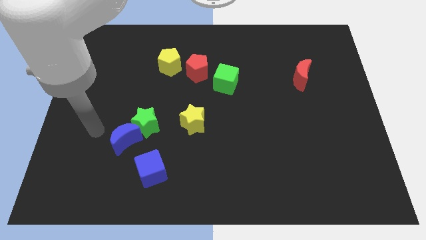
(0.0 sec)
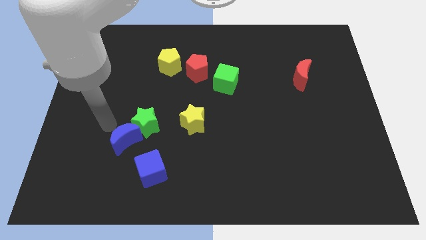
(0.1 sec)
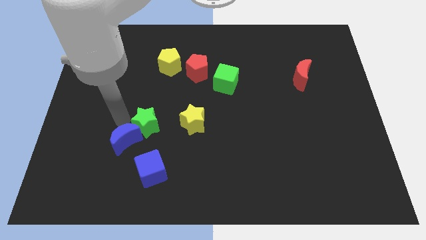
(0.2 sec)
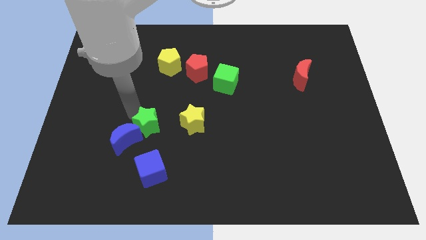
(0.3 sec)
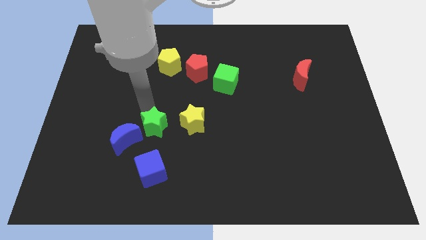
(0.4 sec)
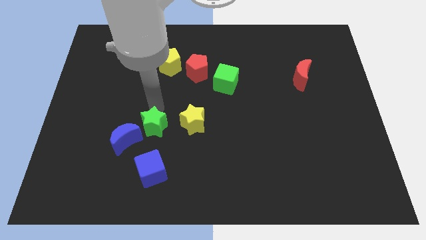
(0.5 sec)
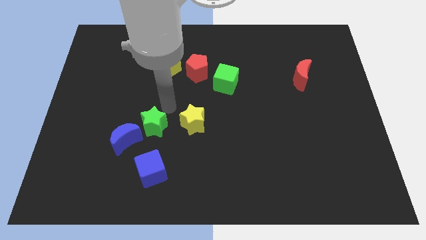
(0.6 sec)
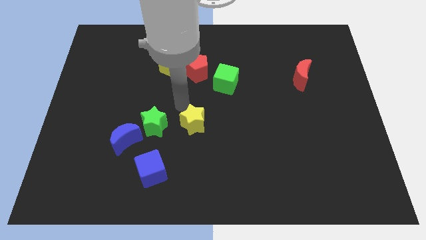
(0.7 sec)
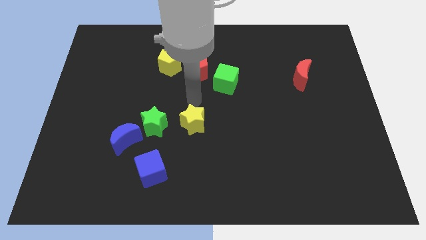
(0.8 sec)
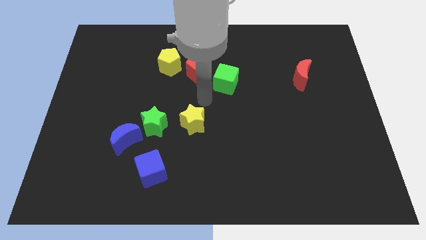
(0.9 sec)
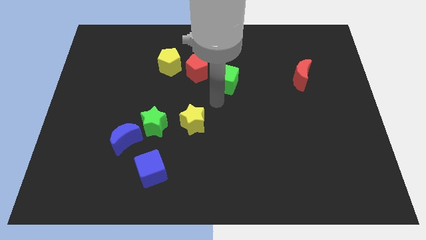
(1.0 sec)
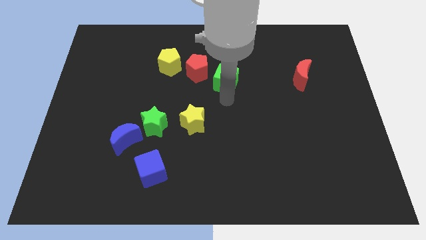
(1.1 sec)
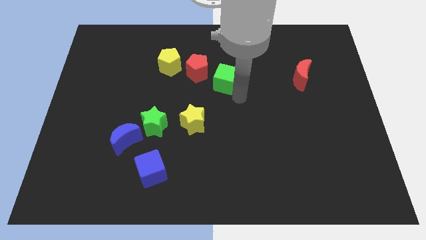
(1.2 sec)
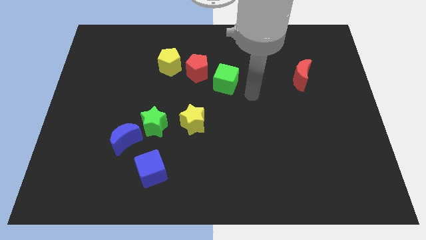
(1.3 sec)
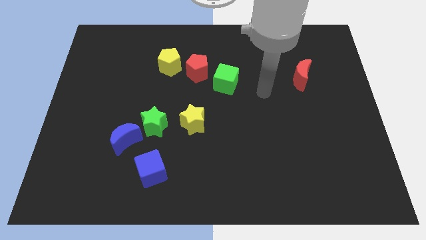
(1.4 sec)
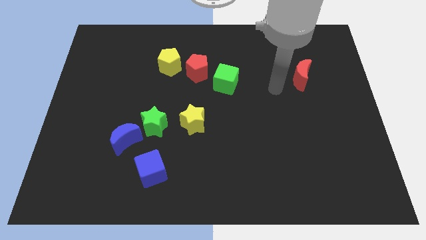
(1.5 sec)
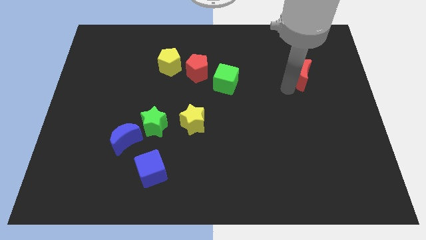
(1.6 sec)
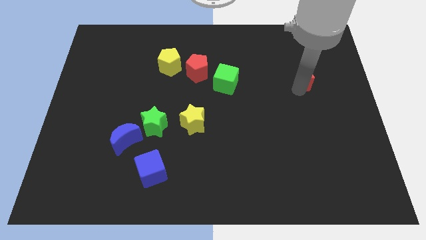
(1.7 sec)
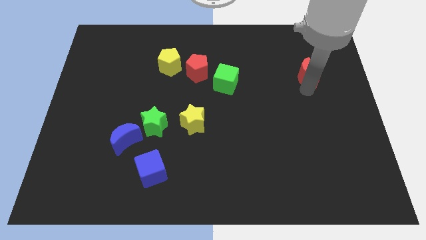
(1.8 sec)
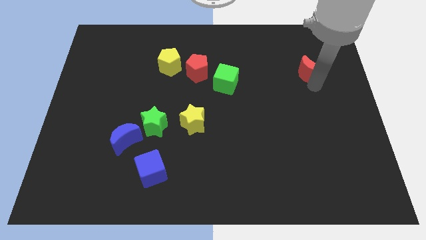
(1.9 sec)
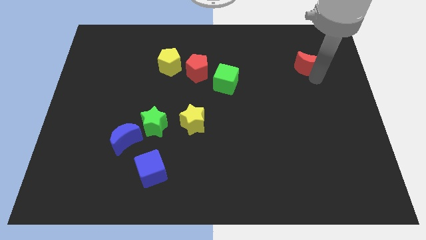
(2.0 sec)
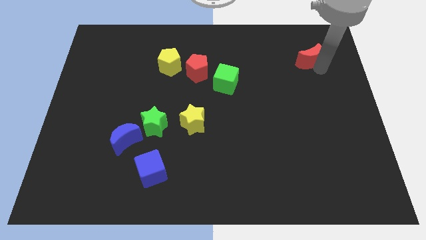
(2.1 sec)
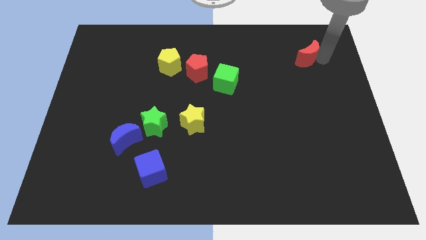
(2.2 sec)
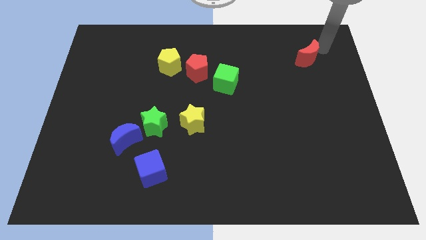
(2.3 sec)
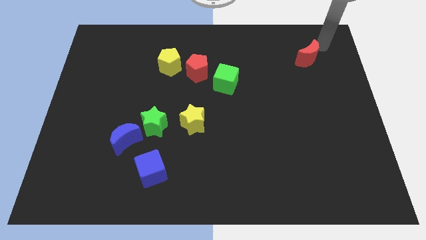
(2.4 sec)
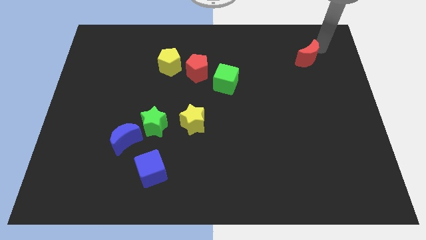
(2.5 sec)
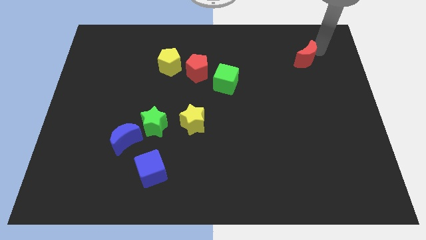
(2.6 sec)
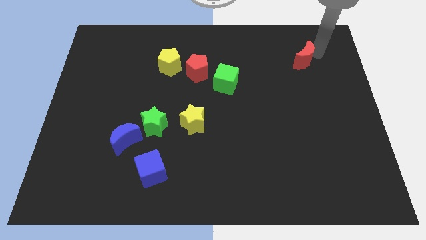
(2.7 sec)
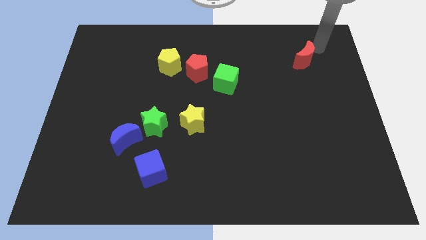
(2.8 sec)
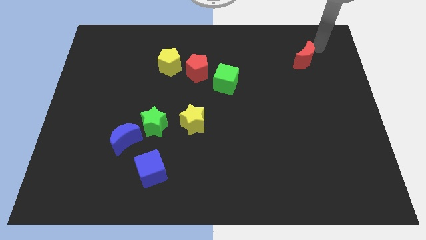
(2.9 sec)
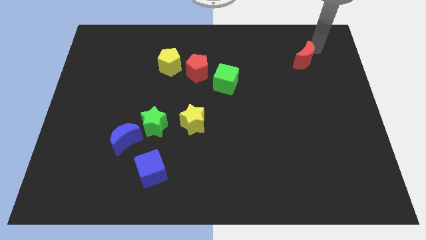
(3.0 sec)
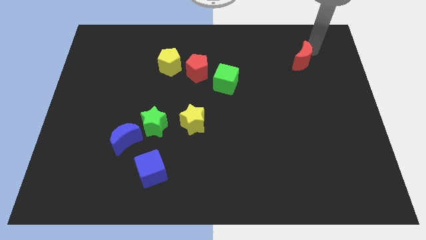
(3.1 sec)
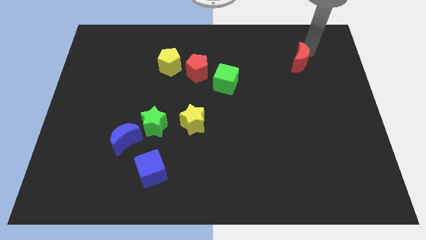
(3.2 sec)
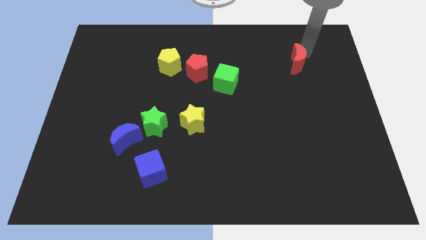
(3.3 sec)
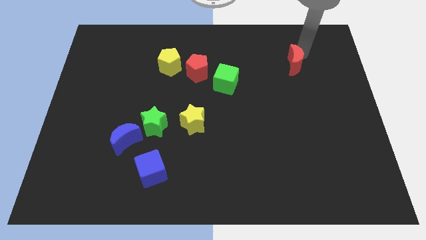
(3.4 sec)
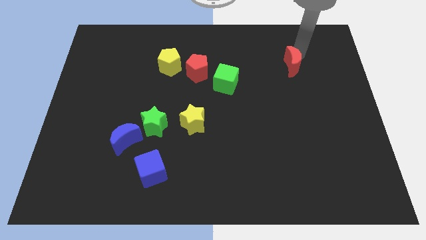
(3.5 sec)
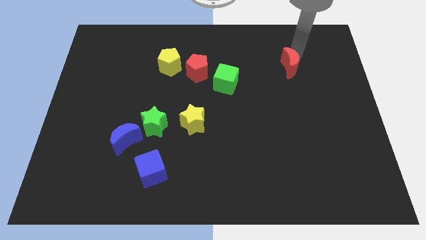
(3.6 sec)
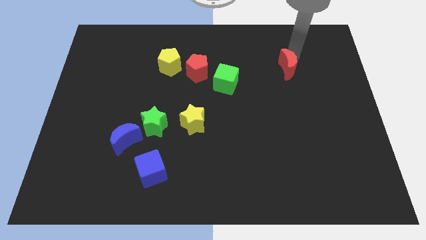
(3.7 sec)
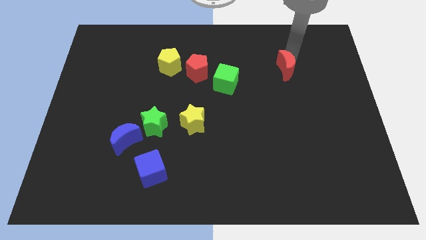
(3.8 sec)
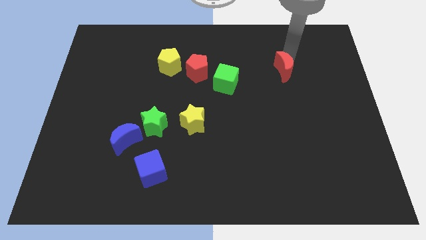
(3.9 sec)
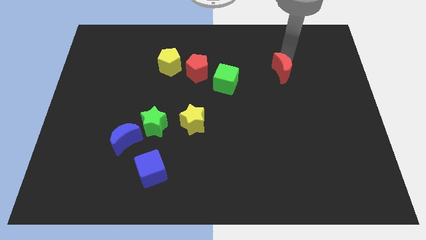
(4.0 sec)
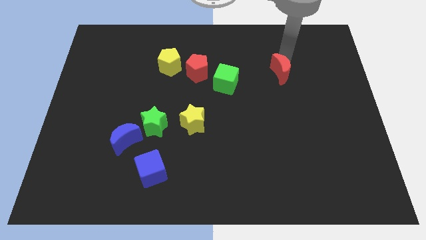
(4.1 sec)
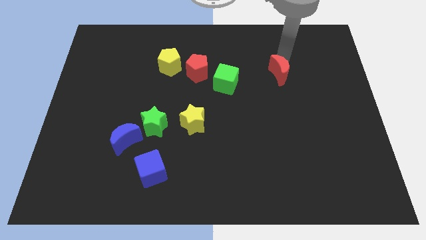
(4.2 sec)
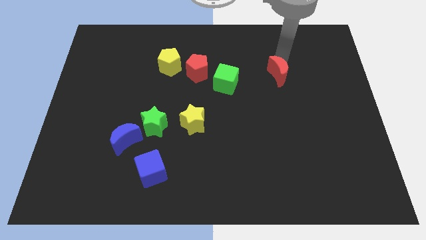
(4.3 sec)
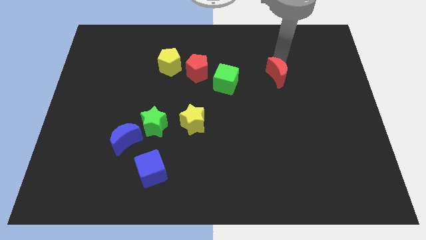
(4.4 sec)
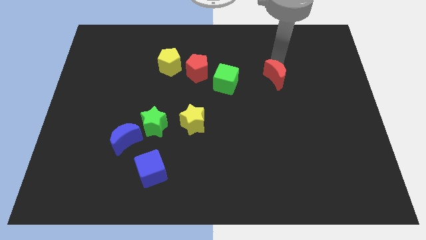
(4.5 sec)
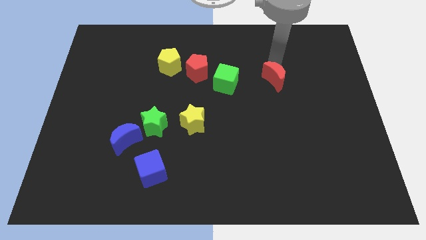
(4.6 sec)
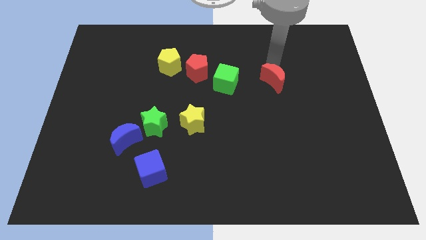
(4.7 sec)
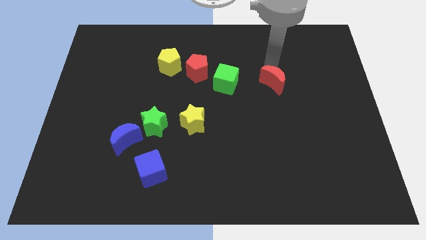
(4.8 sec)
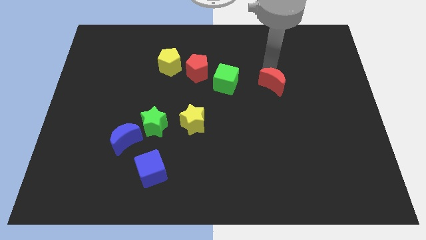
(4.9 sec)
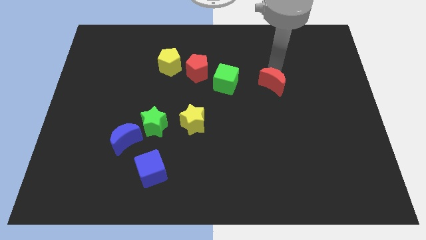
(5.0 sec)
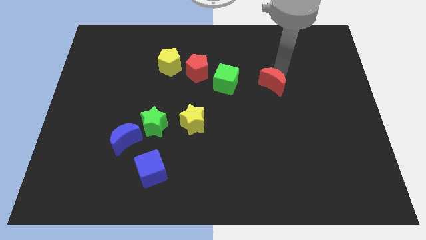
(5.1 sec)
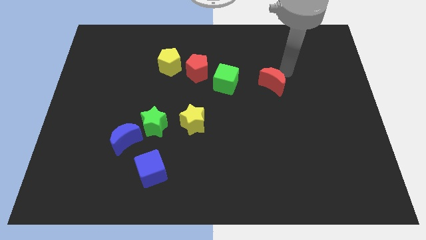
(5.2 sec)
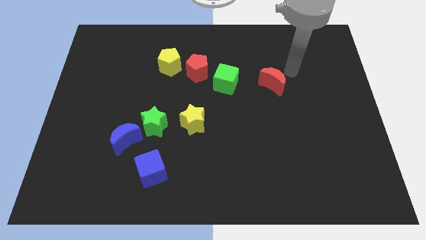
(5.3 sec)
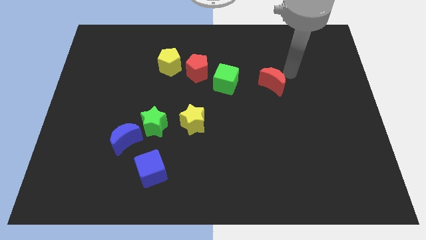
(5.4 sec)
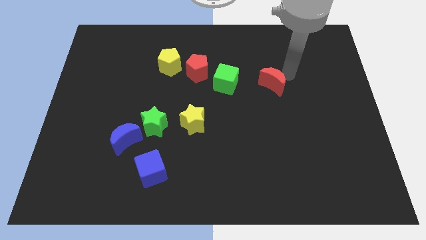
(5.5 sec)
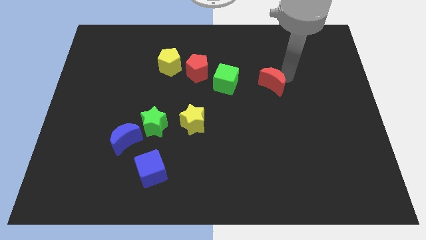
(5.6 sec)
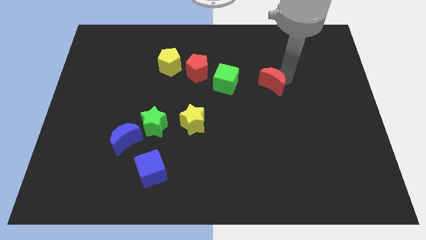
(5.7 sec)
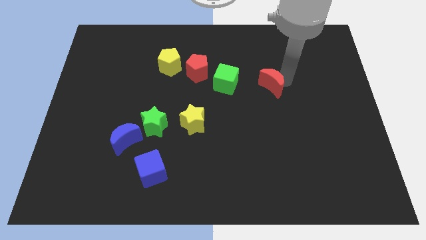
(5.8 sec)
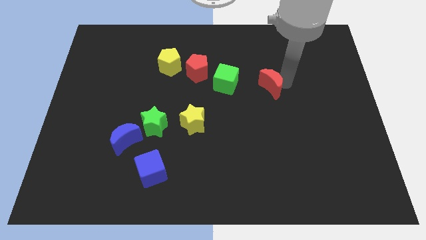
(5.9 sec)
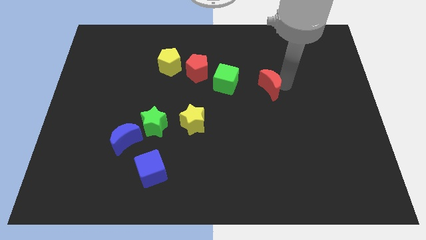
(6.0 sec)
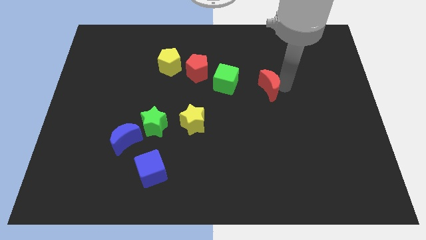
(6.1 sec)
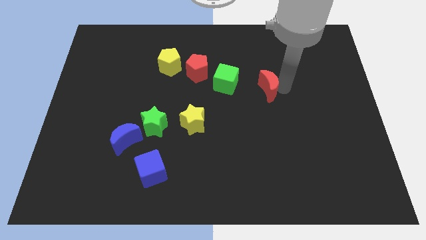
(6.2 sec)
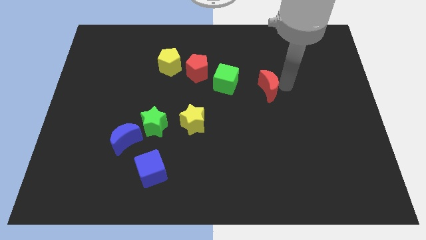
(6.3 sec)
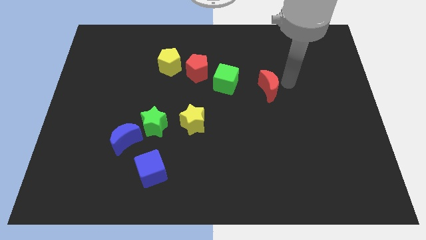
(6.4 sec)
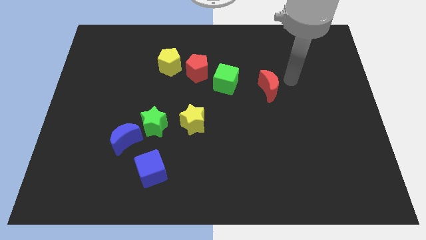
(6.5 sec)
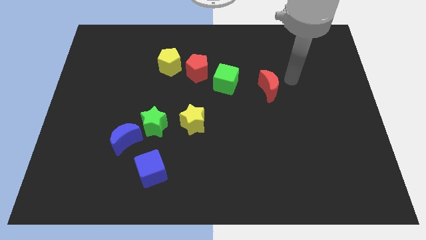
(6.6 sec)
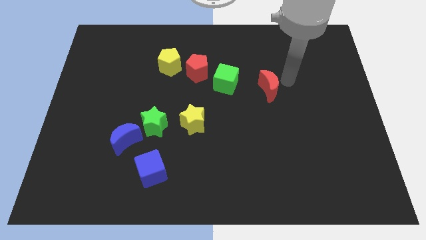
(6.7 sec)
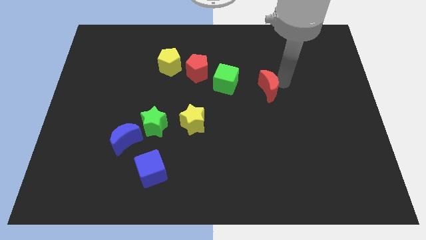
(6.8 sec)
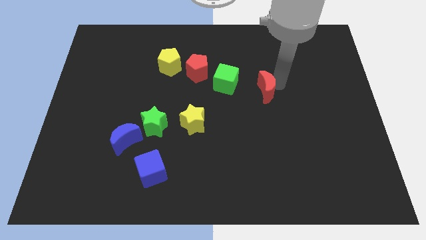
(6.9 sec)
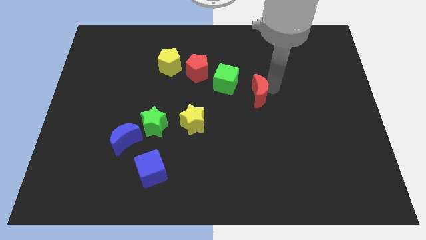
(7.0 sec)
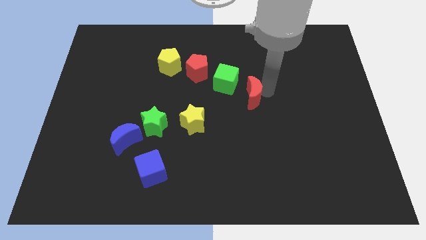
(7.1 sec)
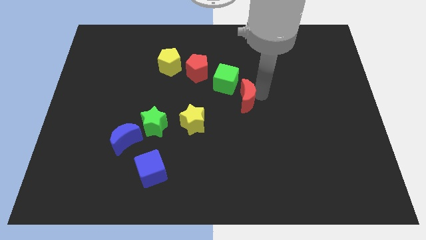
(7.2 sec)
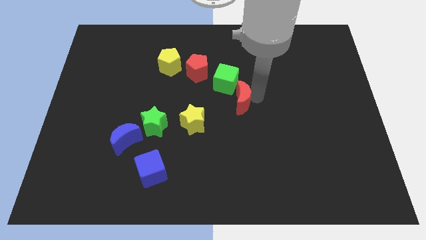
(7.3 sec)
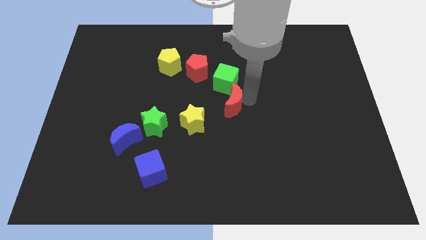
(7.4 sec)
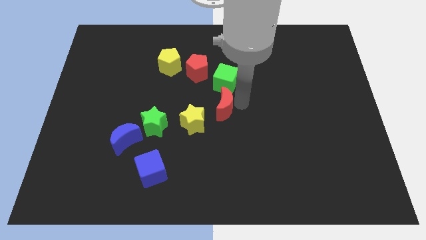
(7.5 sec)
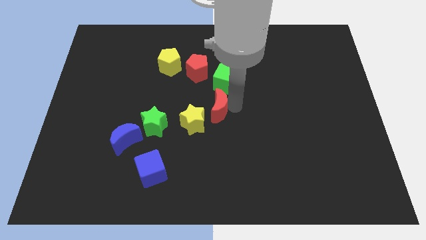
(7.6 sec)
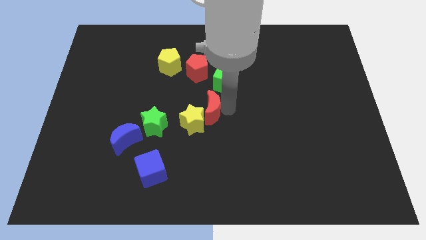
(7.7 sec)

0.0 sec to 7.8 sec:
move the red moon below the red pentagon
